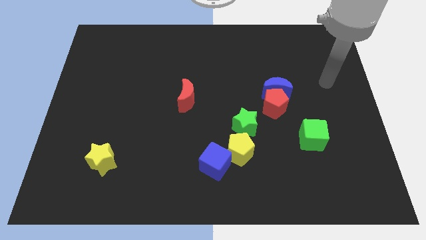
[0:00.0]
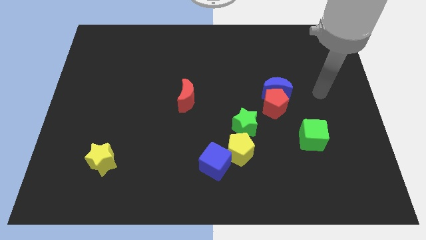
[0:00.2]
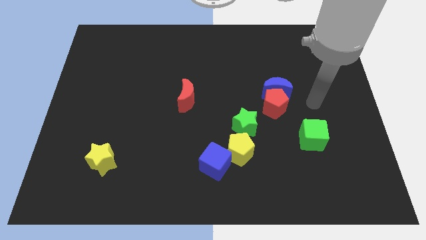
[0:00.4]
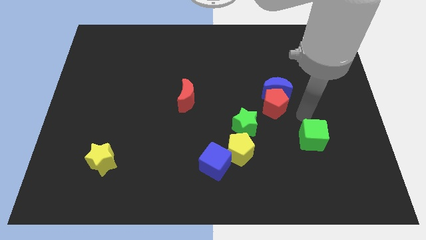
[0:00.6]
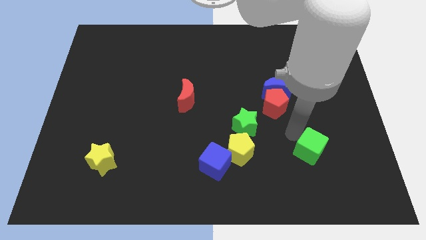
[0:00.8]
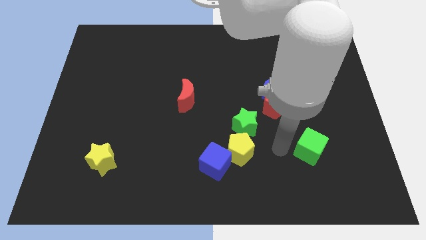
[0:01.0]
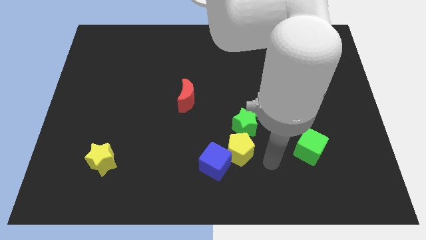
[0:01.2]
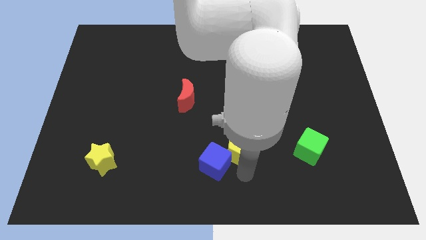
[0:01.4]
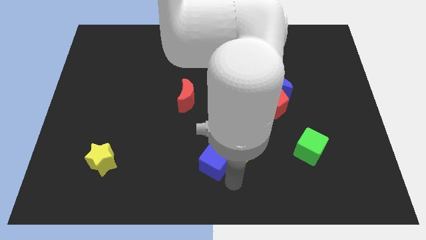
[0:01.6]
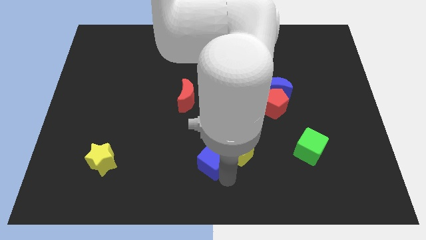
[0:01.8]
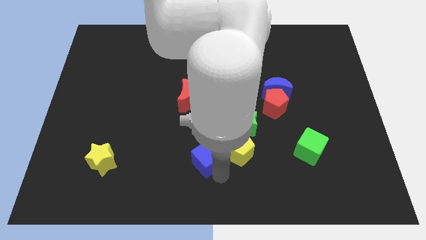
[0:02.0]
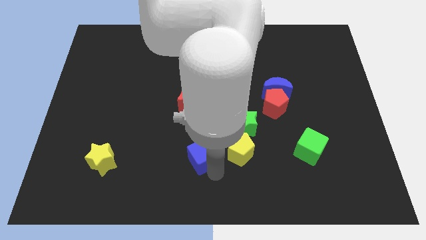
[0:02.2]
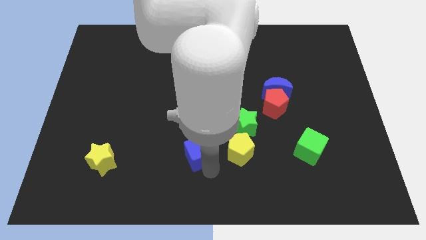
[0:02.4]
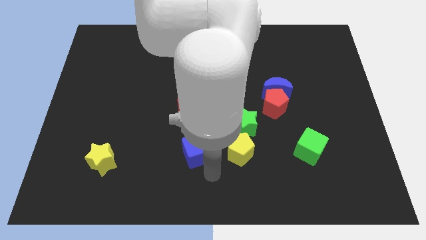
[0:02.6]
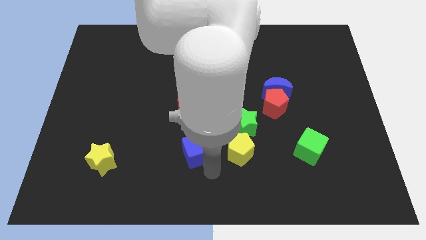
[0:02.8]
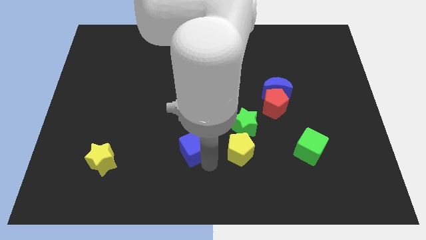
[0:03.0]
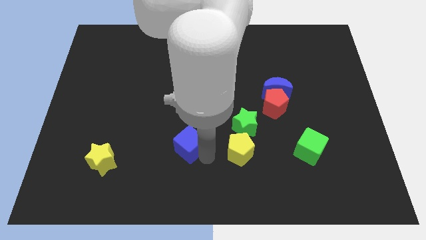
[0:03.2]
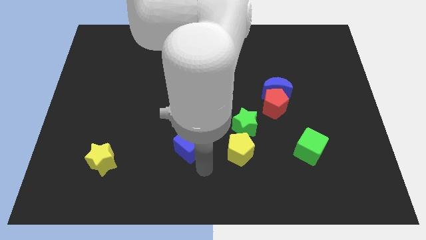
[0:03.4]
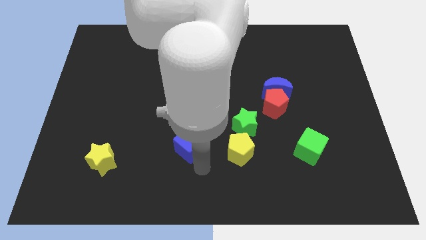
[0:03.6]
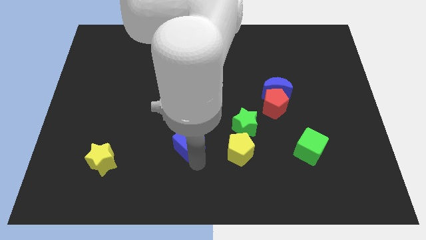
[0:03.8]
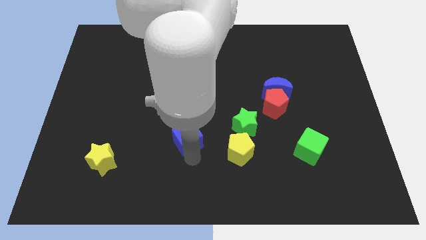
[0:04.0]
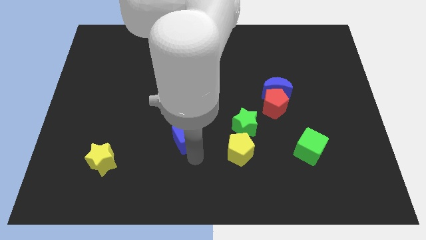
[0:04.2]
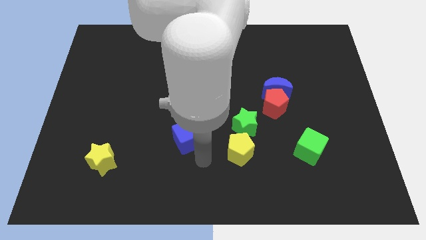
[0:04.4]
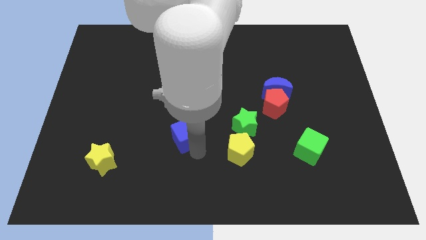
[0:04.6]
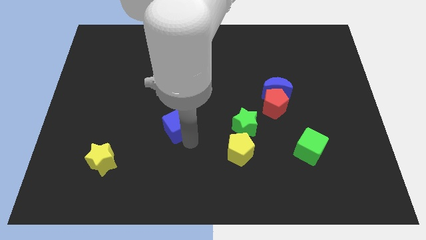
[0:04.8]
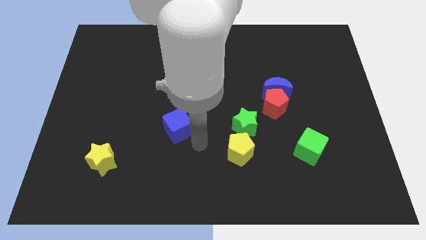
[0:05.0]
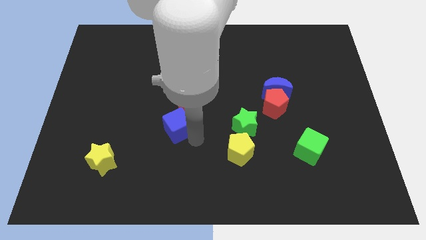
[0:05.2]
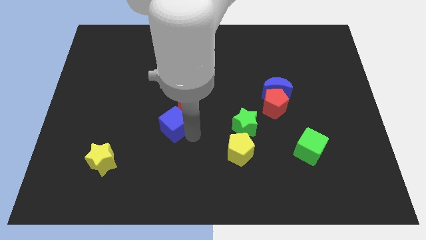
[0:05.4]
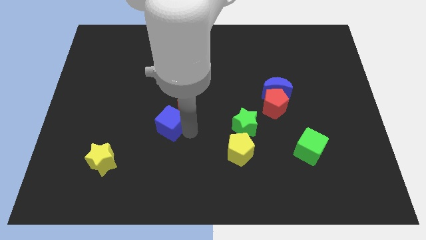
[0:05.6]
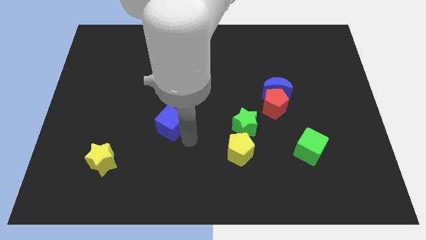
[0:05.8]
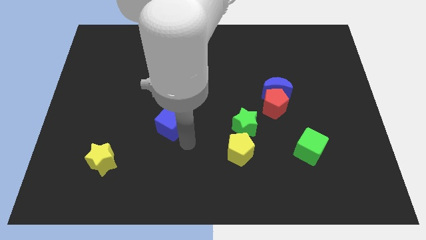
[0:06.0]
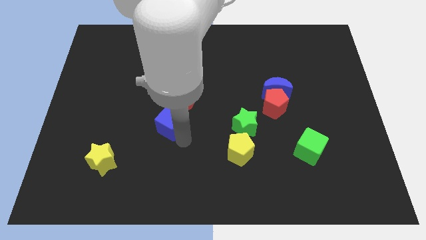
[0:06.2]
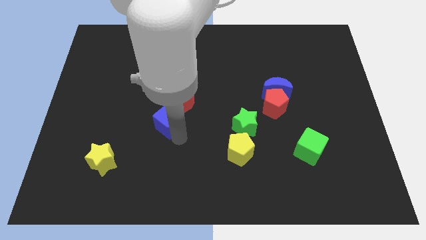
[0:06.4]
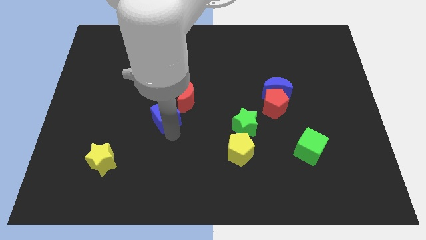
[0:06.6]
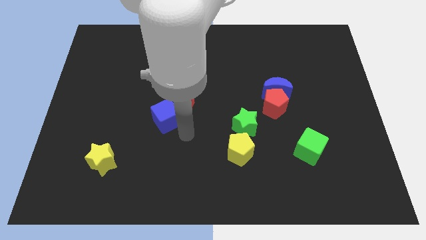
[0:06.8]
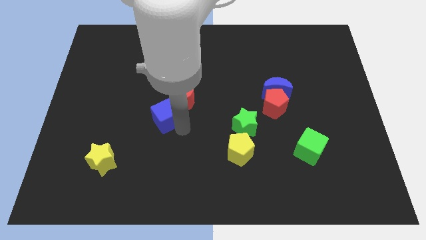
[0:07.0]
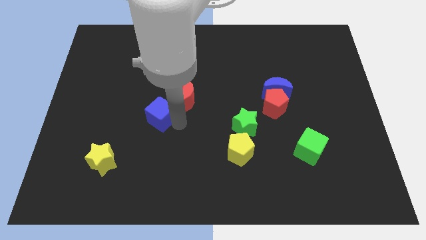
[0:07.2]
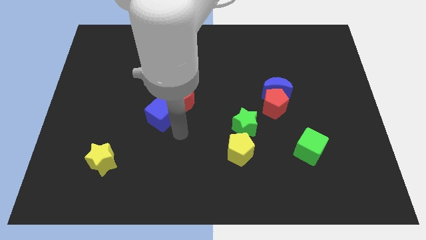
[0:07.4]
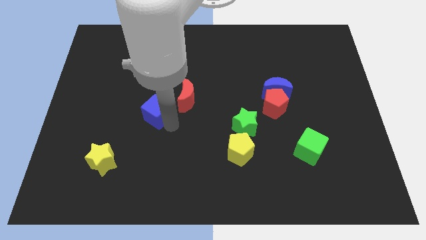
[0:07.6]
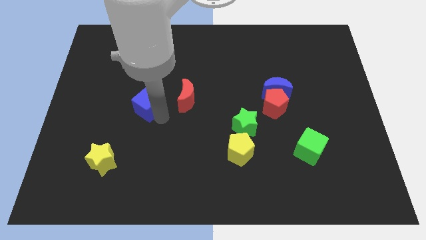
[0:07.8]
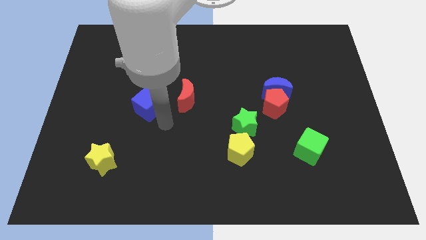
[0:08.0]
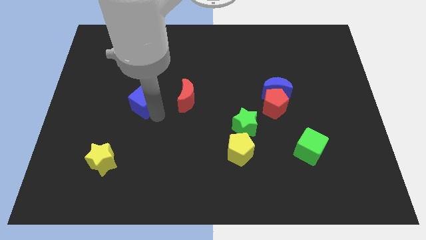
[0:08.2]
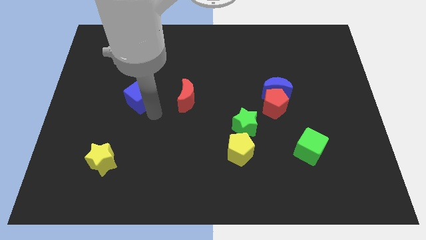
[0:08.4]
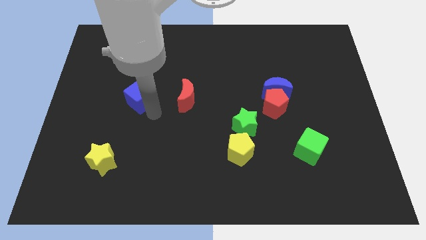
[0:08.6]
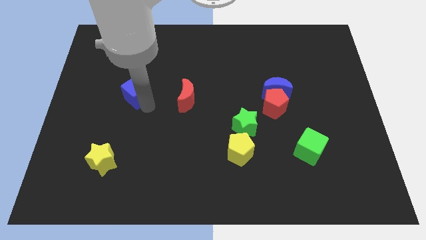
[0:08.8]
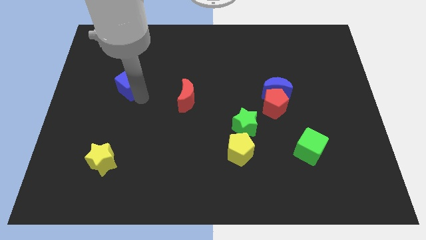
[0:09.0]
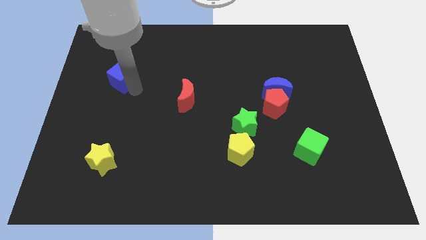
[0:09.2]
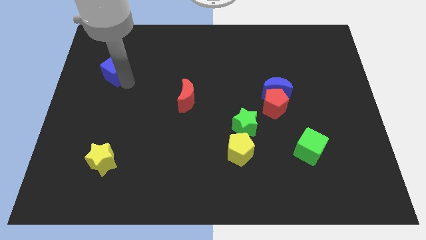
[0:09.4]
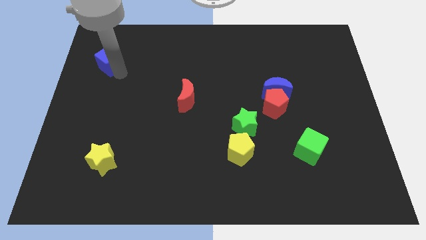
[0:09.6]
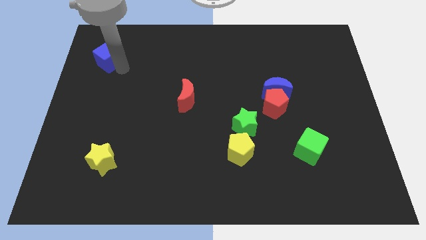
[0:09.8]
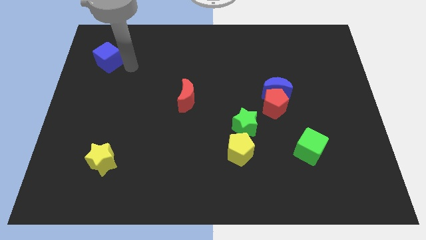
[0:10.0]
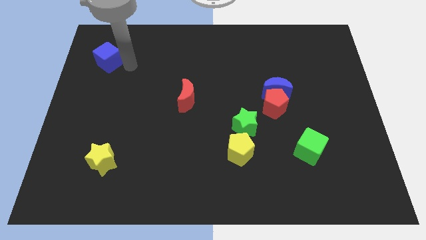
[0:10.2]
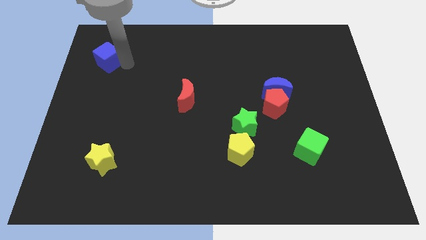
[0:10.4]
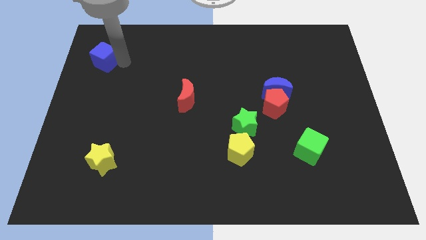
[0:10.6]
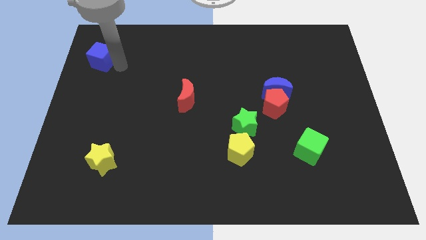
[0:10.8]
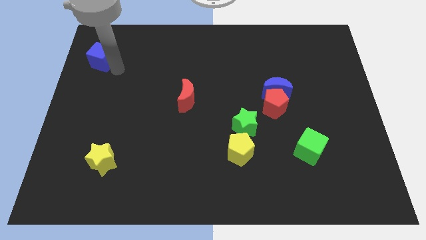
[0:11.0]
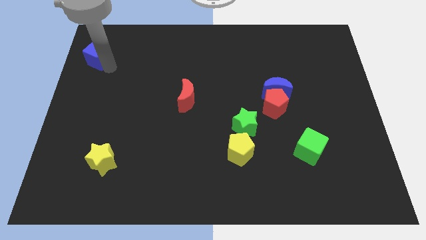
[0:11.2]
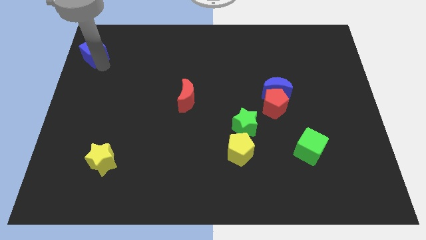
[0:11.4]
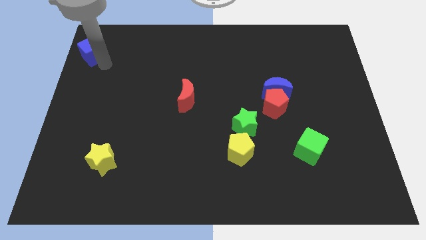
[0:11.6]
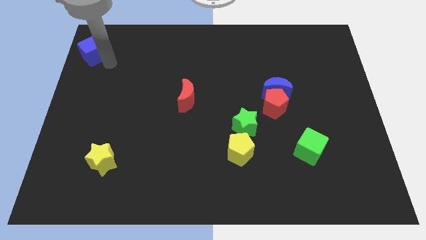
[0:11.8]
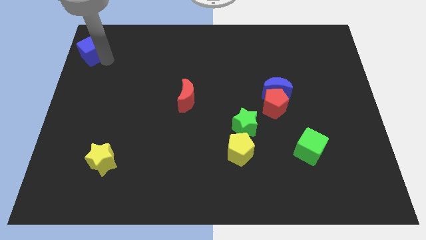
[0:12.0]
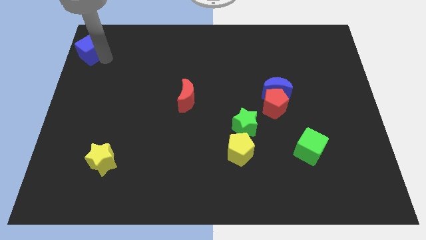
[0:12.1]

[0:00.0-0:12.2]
push the blue cube to the upper left corner
